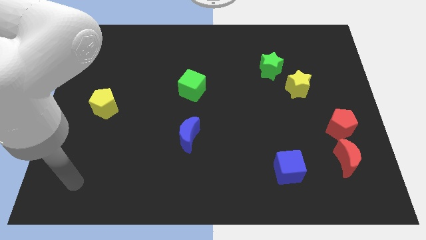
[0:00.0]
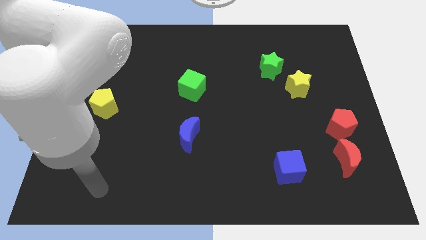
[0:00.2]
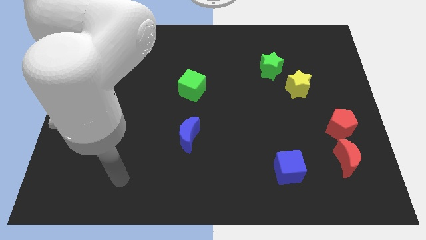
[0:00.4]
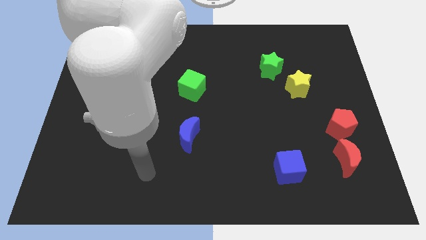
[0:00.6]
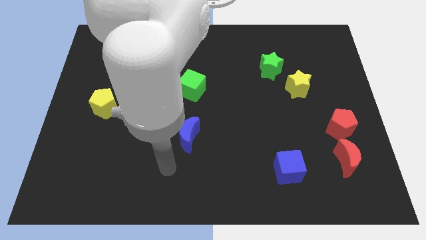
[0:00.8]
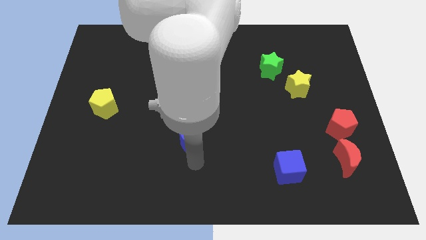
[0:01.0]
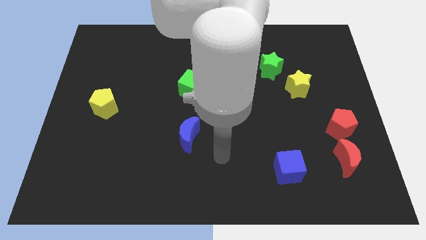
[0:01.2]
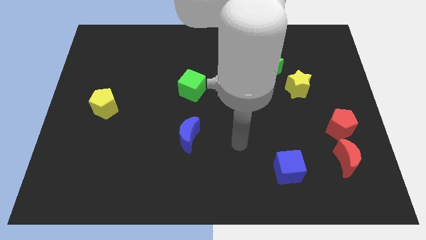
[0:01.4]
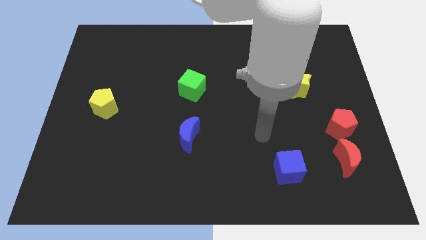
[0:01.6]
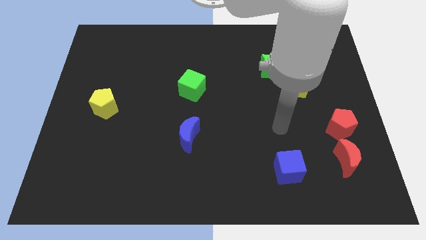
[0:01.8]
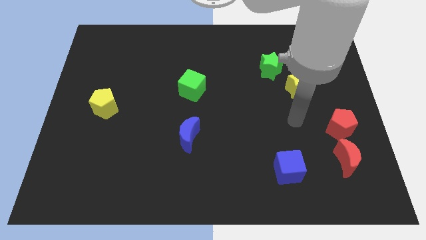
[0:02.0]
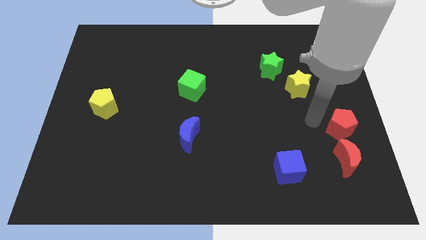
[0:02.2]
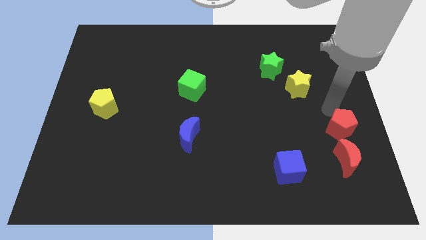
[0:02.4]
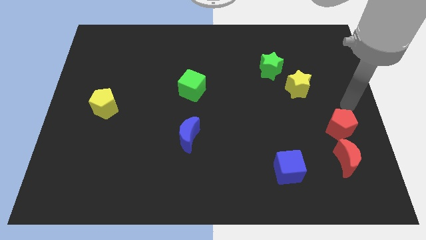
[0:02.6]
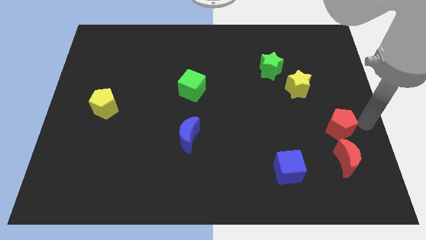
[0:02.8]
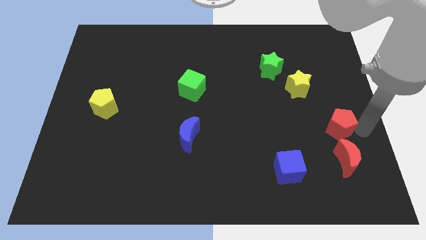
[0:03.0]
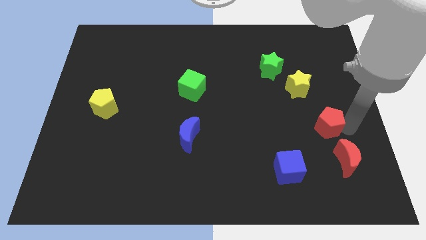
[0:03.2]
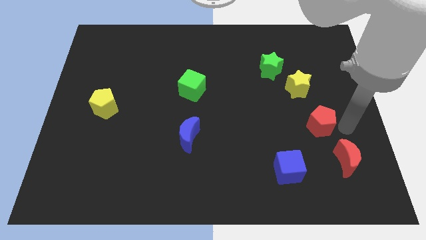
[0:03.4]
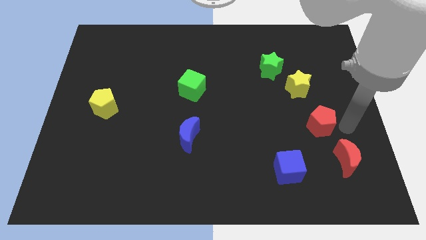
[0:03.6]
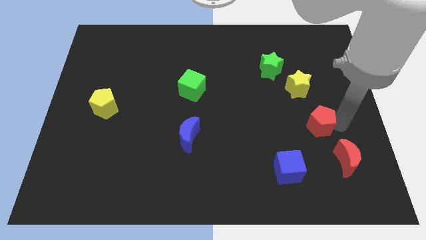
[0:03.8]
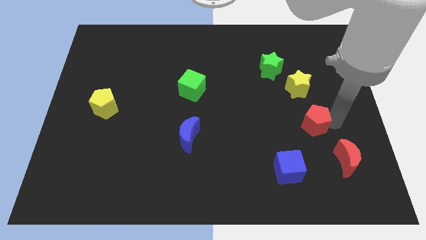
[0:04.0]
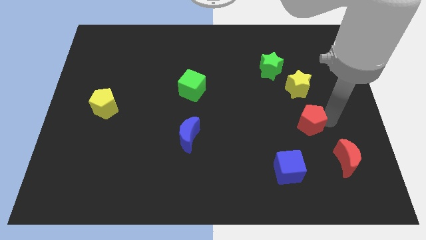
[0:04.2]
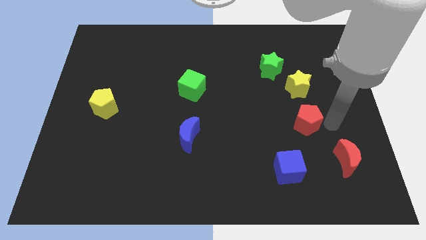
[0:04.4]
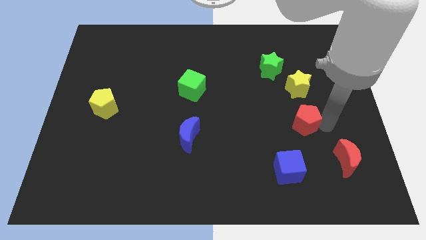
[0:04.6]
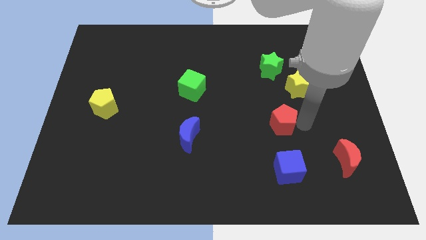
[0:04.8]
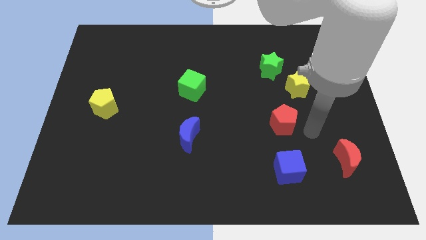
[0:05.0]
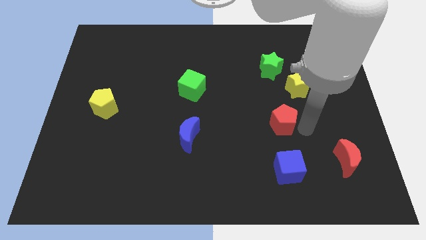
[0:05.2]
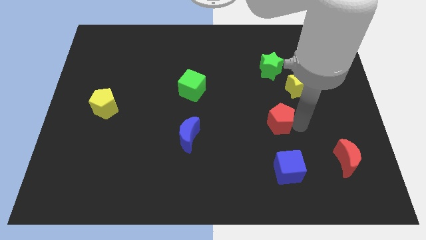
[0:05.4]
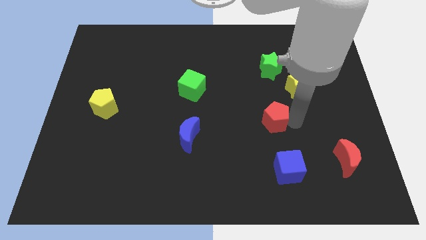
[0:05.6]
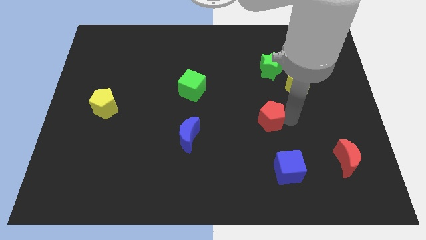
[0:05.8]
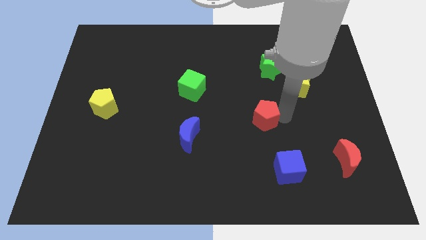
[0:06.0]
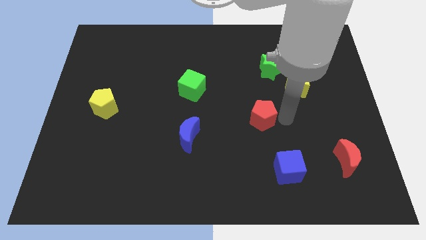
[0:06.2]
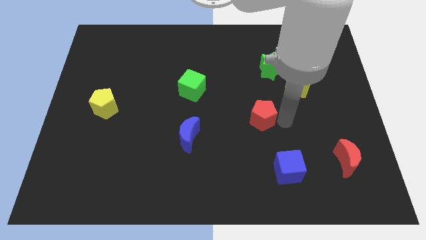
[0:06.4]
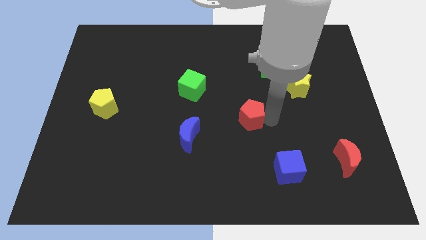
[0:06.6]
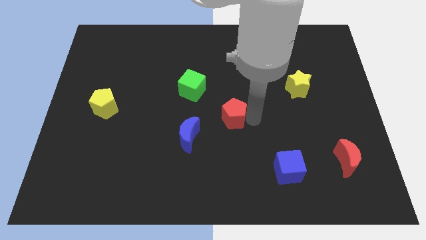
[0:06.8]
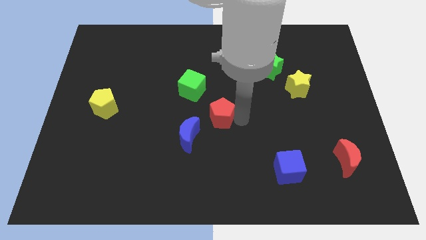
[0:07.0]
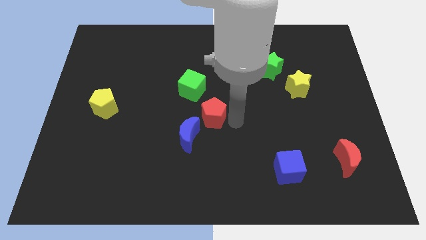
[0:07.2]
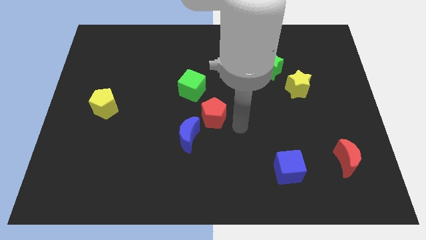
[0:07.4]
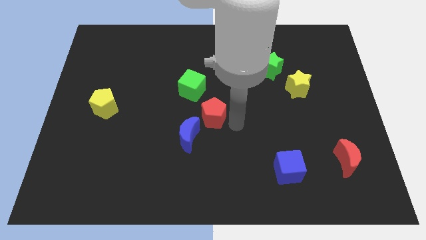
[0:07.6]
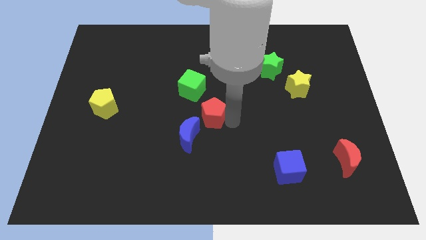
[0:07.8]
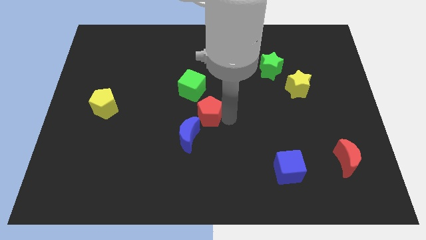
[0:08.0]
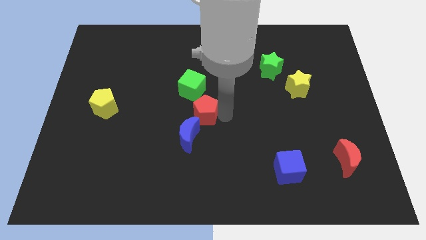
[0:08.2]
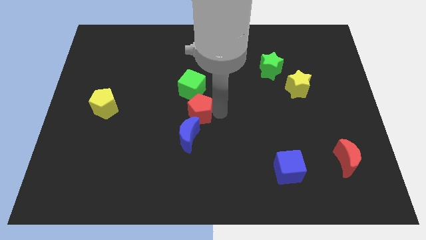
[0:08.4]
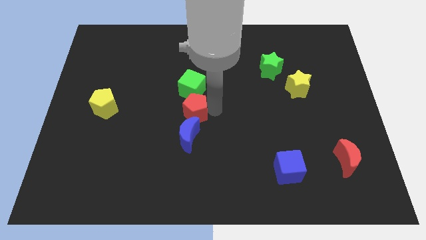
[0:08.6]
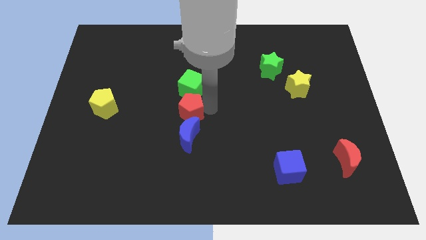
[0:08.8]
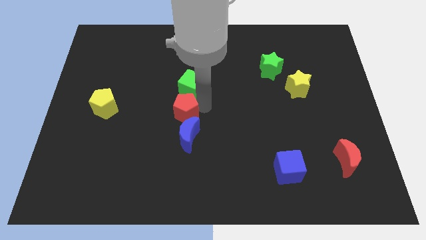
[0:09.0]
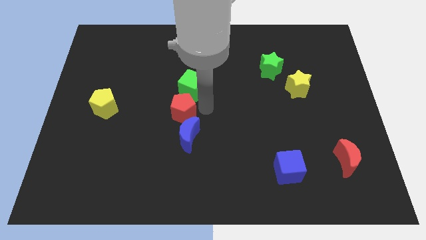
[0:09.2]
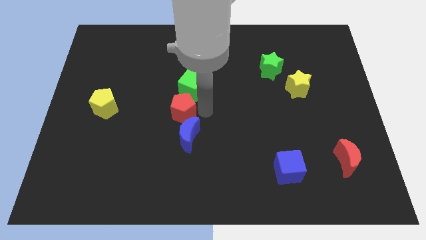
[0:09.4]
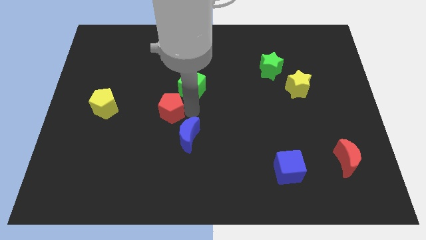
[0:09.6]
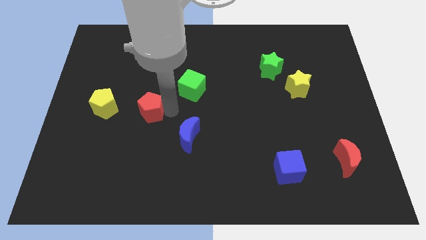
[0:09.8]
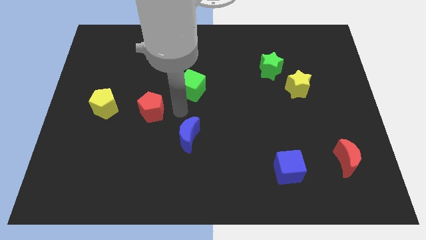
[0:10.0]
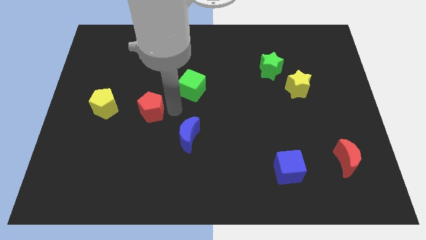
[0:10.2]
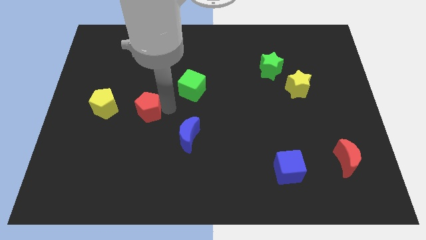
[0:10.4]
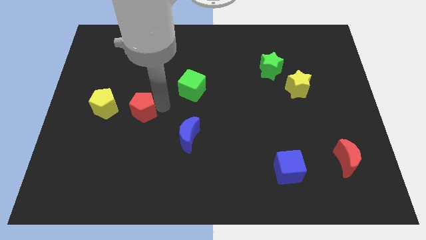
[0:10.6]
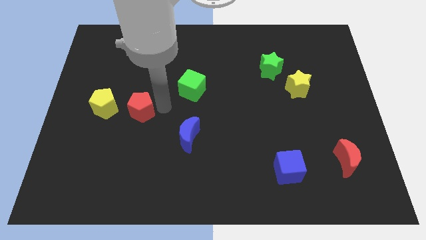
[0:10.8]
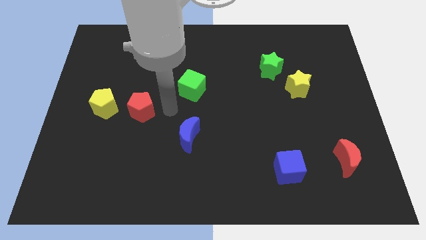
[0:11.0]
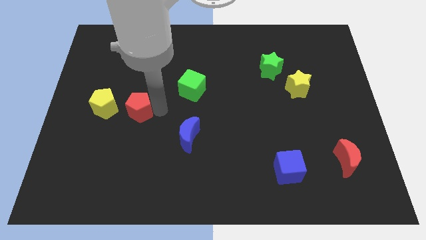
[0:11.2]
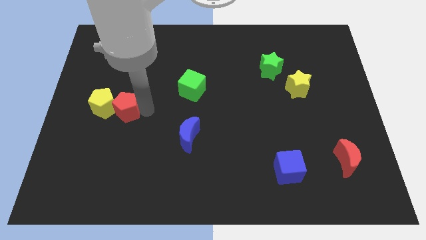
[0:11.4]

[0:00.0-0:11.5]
move the red pentagon towards the yellow pentagon

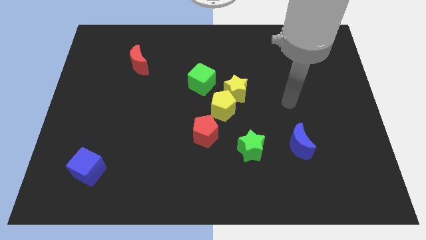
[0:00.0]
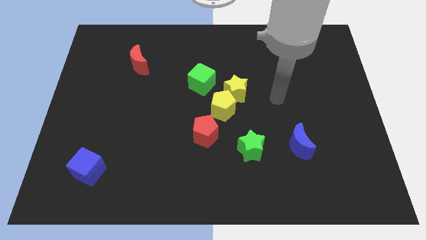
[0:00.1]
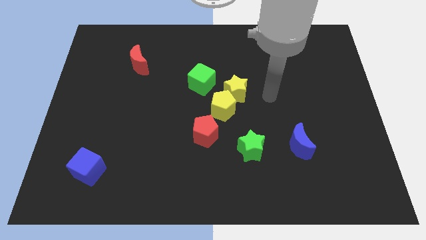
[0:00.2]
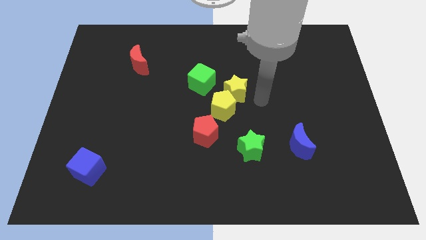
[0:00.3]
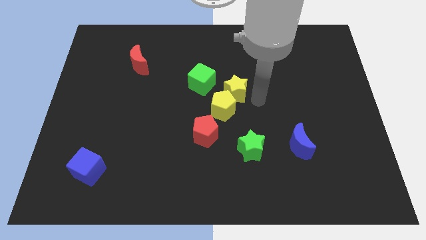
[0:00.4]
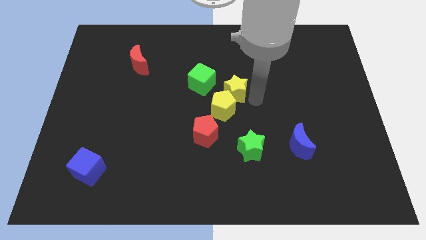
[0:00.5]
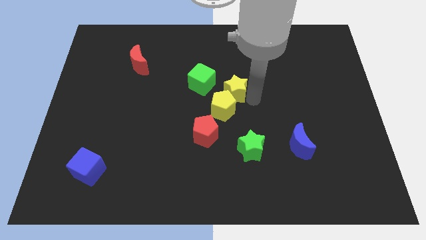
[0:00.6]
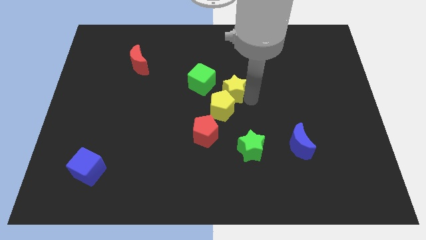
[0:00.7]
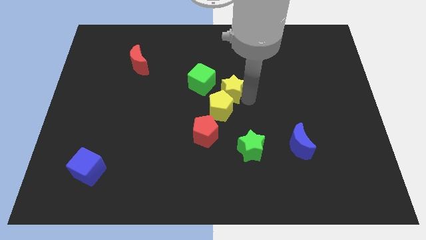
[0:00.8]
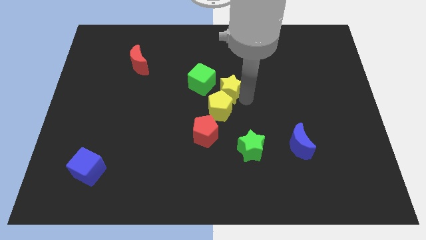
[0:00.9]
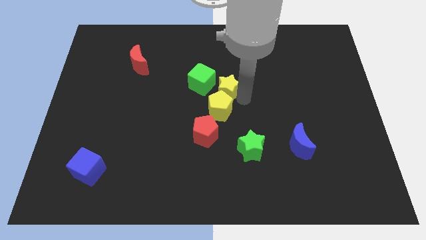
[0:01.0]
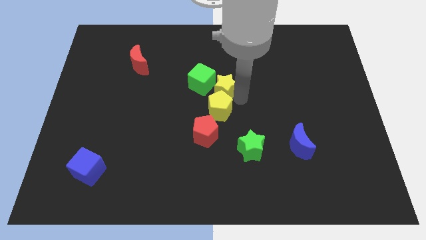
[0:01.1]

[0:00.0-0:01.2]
move the yellow star close to the green cube

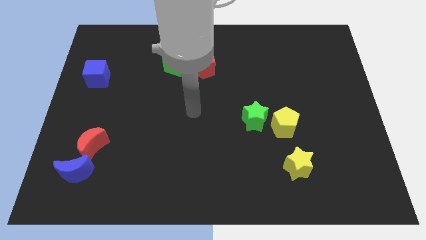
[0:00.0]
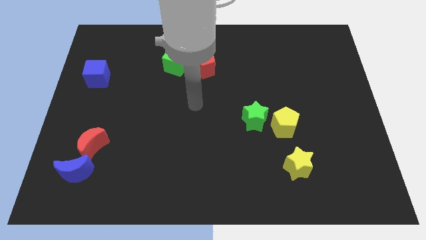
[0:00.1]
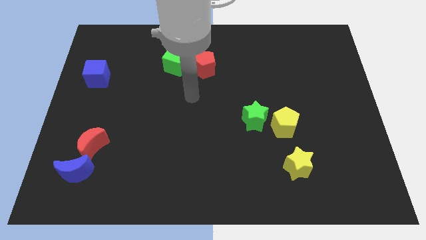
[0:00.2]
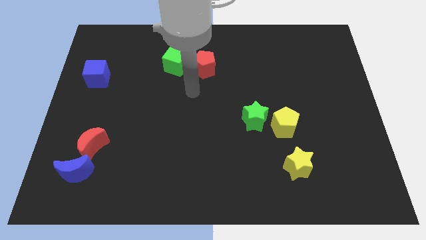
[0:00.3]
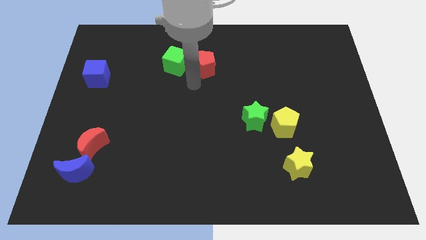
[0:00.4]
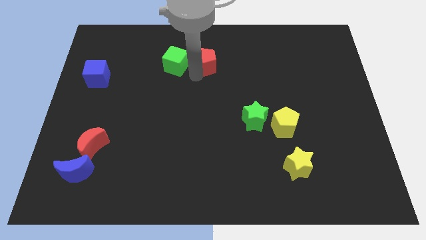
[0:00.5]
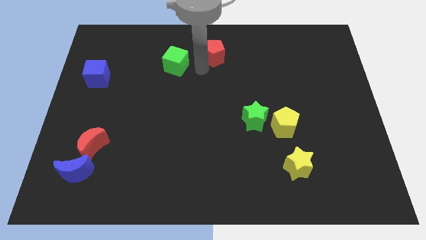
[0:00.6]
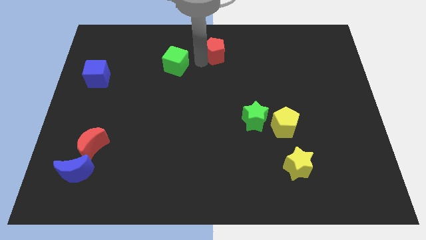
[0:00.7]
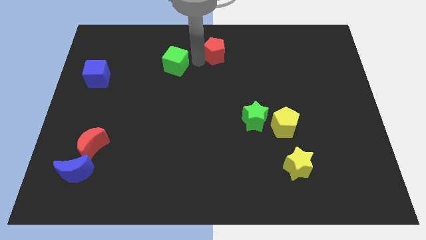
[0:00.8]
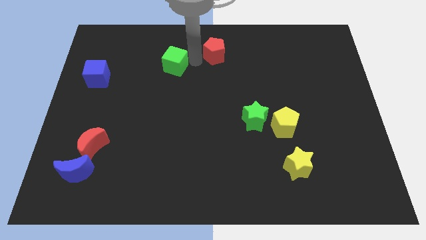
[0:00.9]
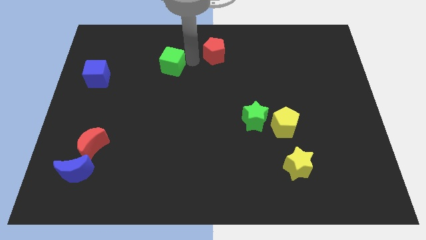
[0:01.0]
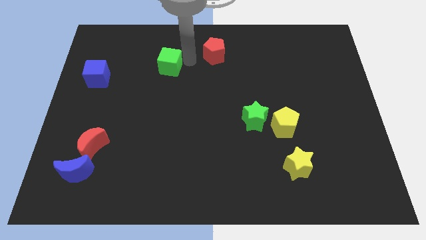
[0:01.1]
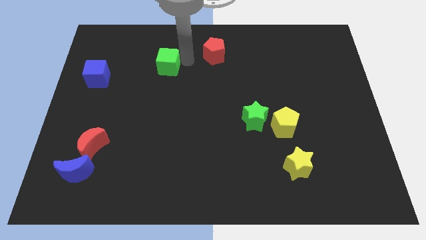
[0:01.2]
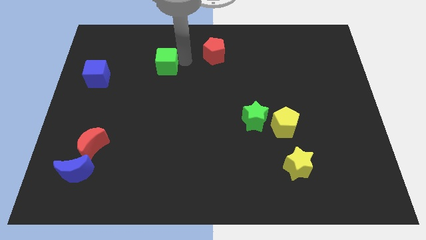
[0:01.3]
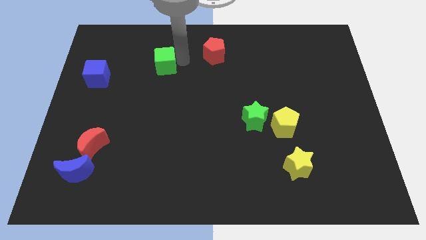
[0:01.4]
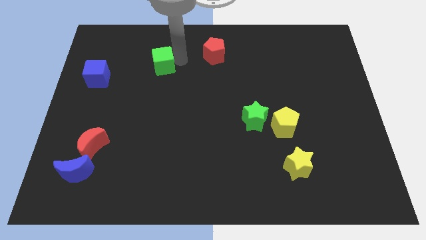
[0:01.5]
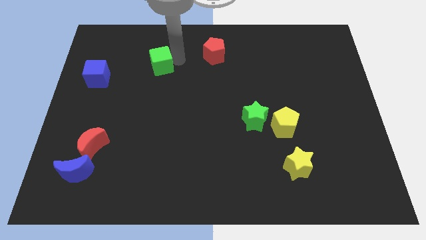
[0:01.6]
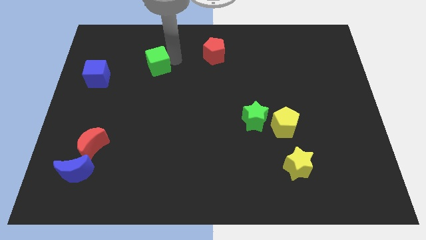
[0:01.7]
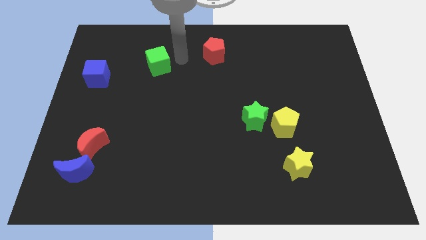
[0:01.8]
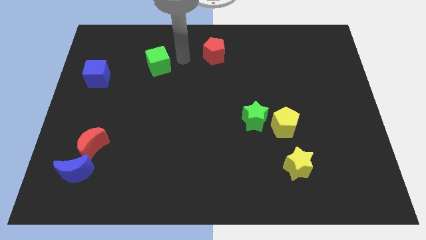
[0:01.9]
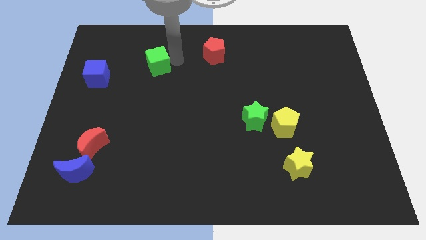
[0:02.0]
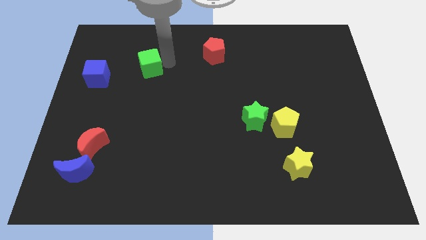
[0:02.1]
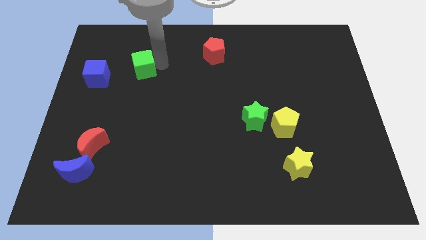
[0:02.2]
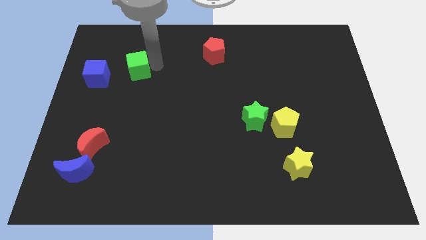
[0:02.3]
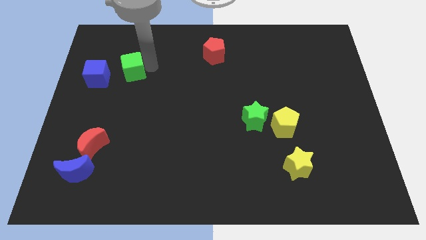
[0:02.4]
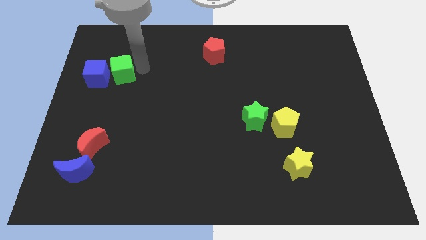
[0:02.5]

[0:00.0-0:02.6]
slide the green cube next to the blue cube
